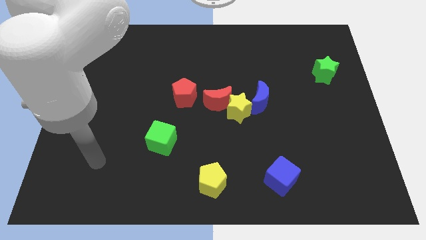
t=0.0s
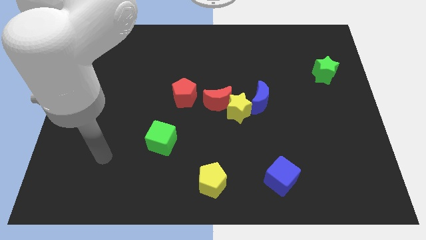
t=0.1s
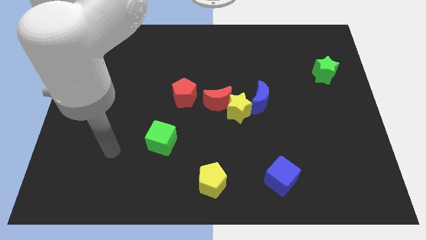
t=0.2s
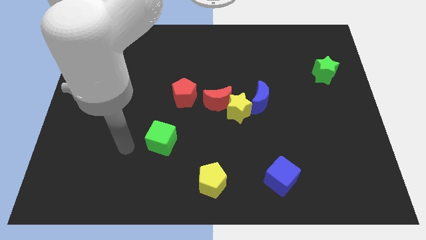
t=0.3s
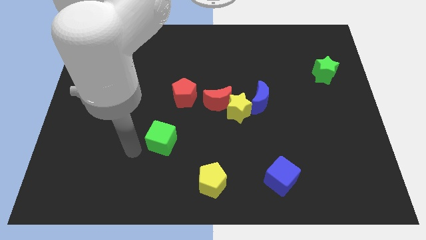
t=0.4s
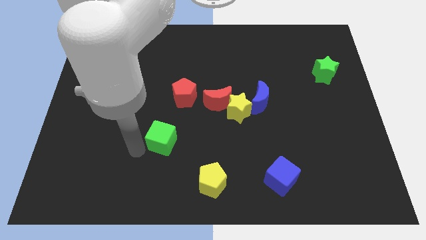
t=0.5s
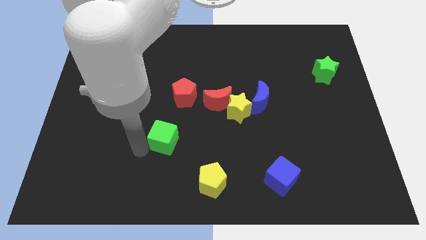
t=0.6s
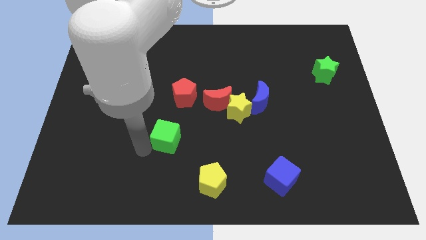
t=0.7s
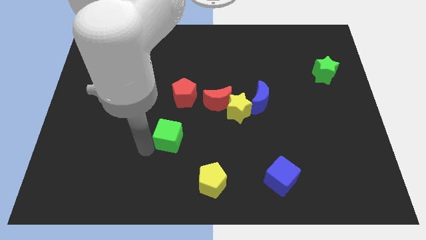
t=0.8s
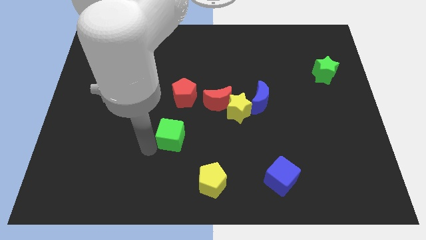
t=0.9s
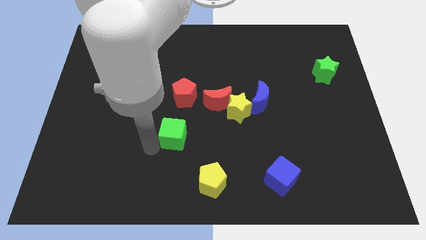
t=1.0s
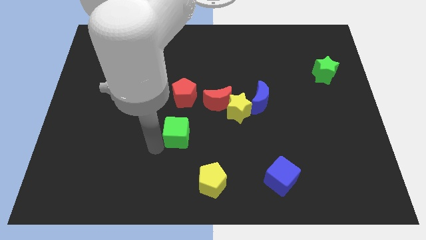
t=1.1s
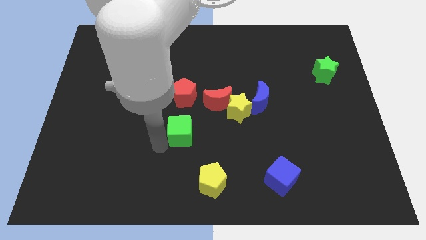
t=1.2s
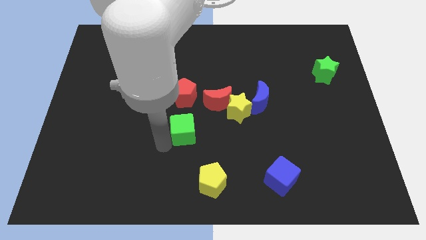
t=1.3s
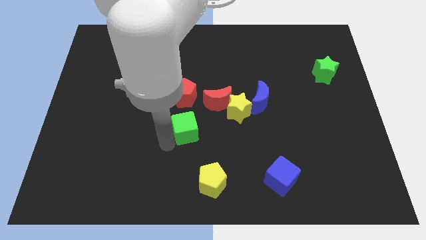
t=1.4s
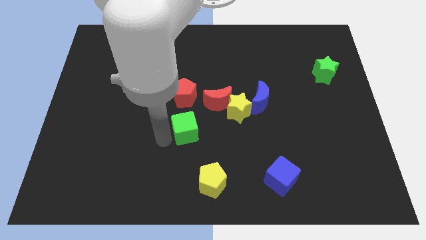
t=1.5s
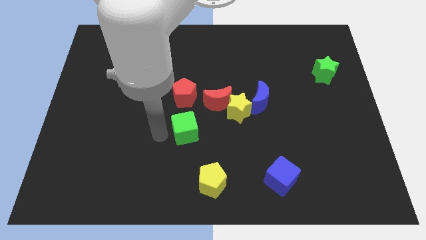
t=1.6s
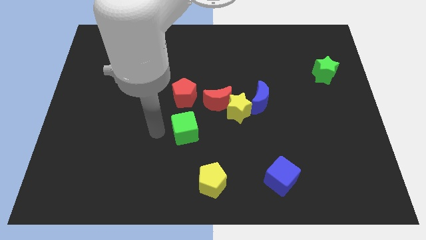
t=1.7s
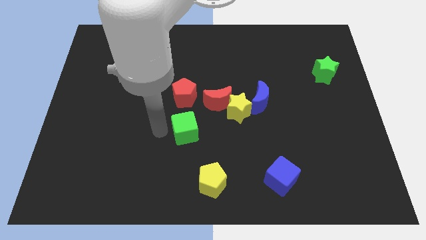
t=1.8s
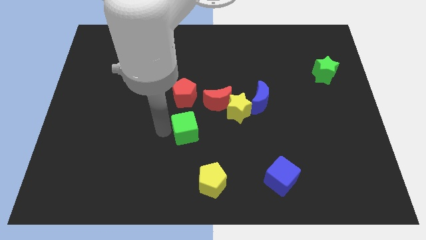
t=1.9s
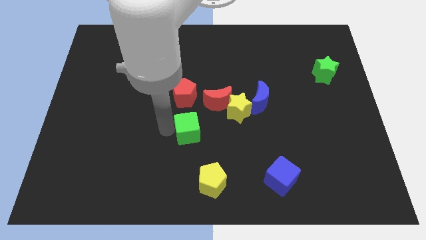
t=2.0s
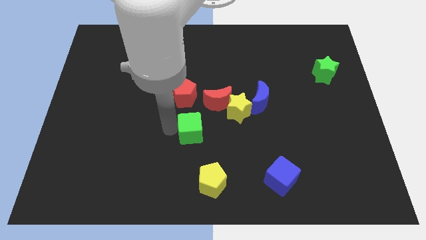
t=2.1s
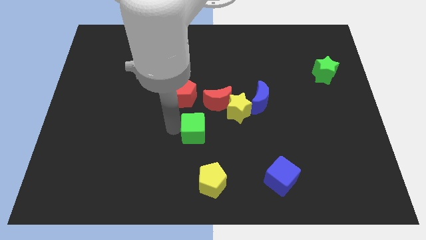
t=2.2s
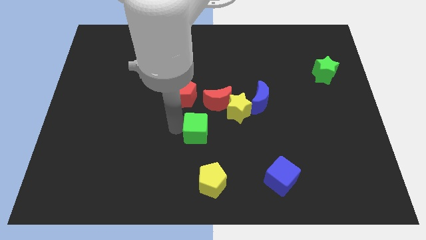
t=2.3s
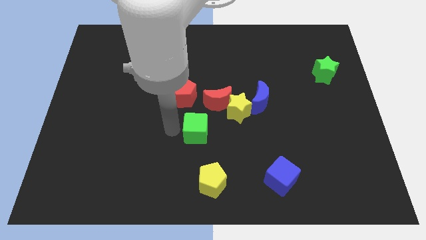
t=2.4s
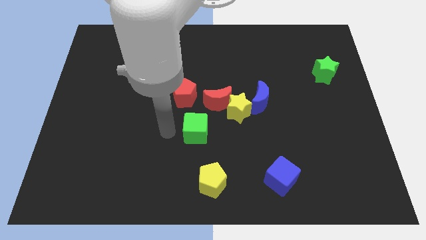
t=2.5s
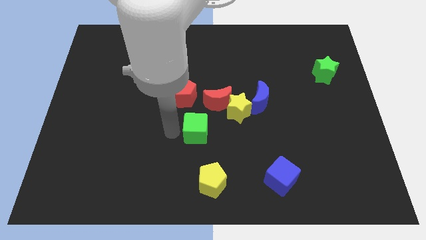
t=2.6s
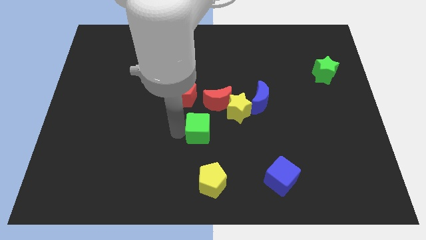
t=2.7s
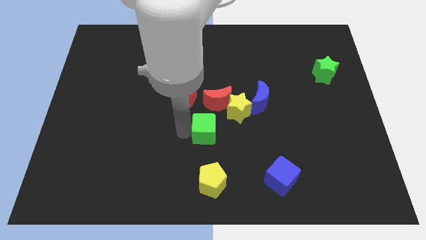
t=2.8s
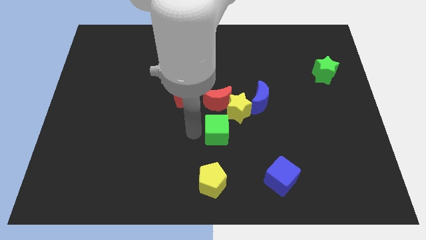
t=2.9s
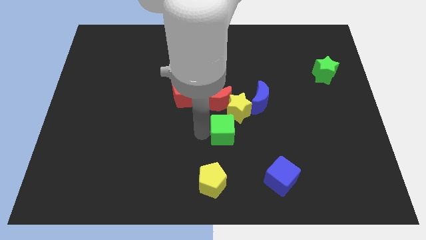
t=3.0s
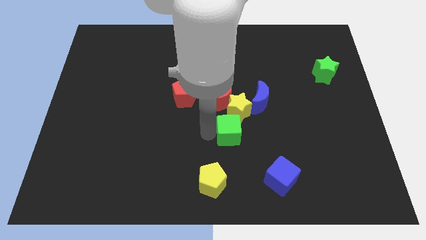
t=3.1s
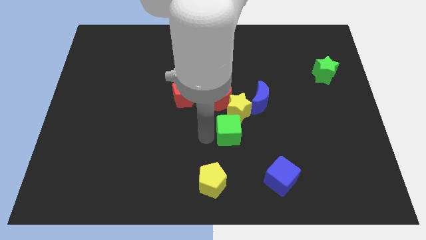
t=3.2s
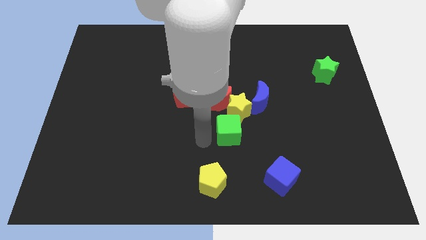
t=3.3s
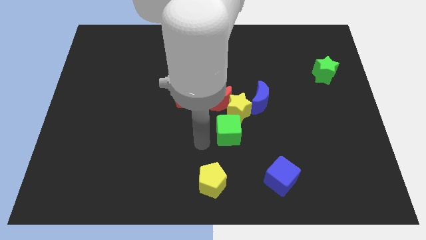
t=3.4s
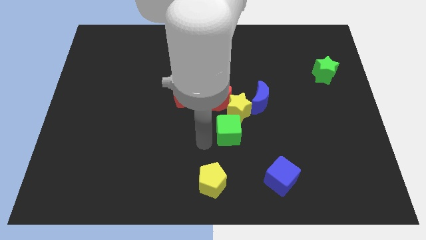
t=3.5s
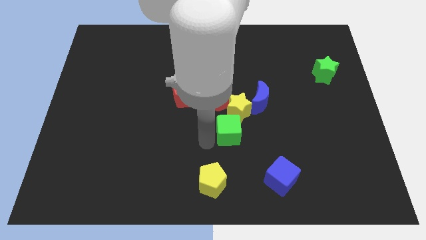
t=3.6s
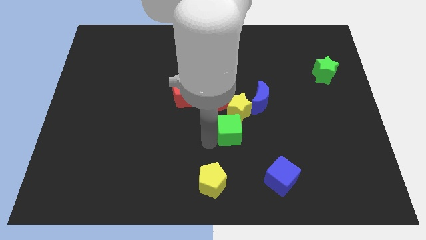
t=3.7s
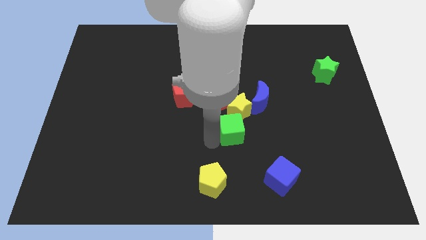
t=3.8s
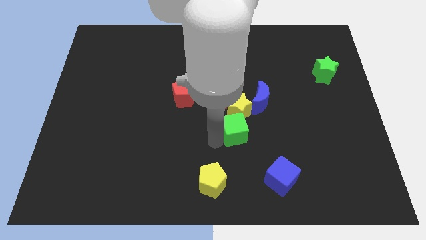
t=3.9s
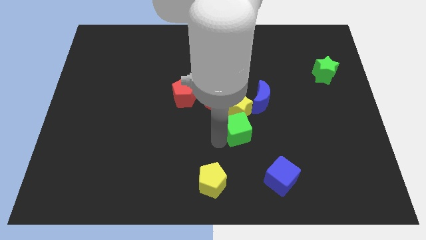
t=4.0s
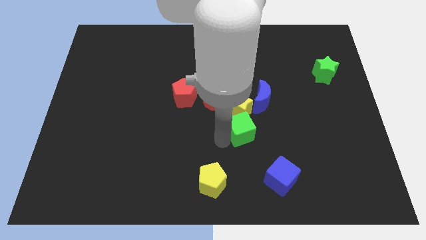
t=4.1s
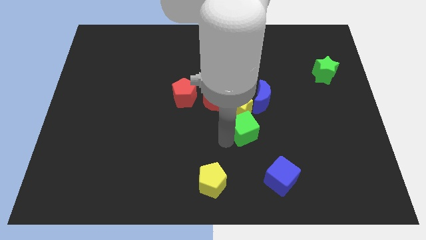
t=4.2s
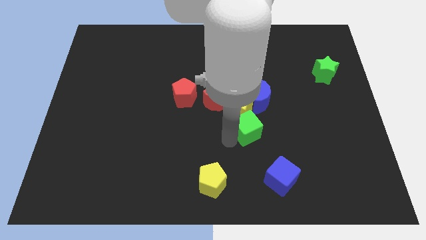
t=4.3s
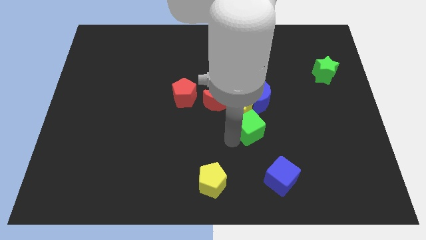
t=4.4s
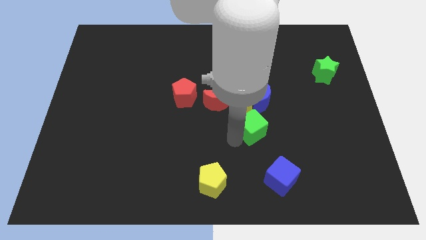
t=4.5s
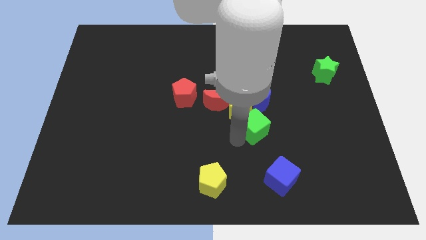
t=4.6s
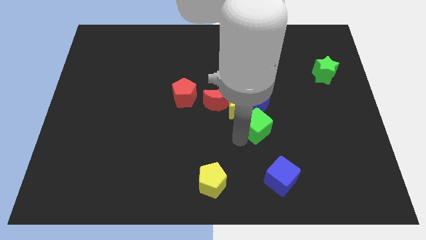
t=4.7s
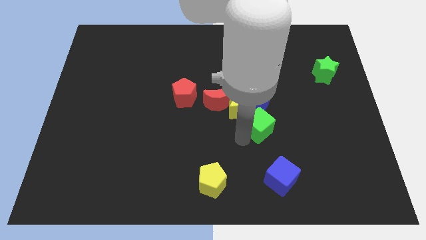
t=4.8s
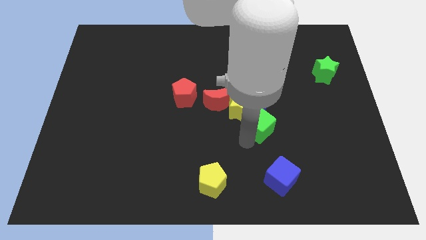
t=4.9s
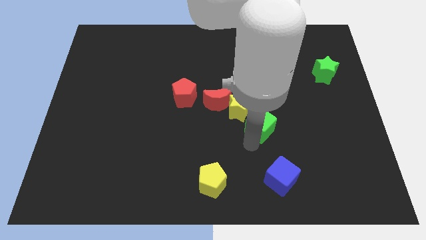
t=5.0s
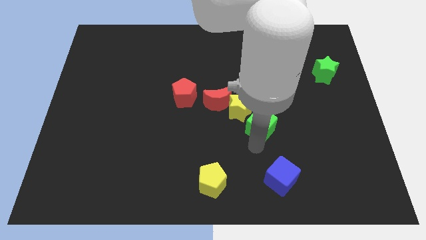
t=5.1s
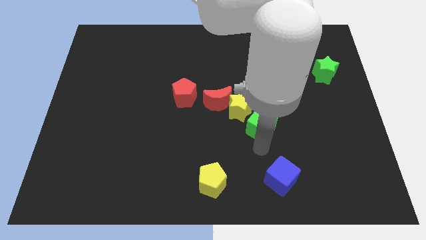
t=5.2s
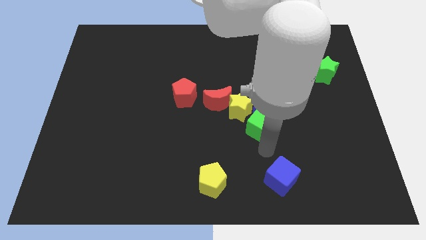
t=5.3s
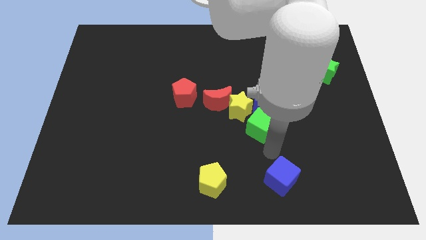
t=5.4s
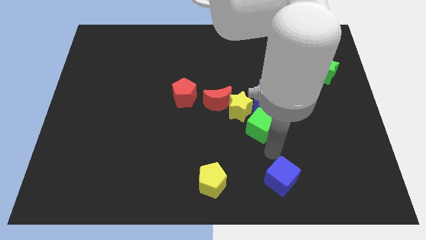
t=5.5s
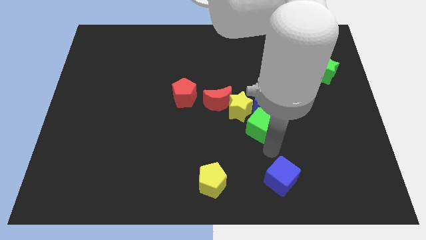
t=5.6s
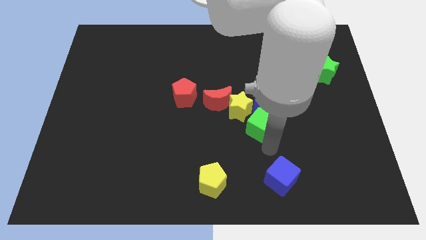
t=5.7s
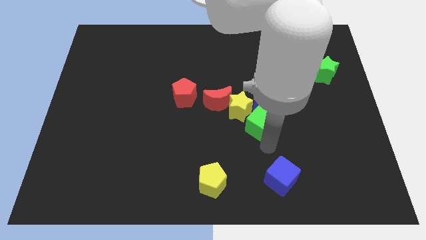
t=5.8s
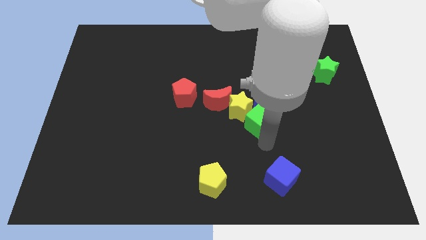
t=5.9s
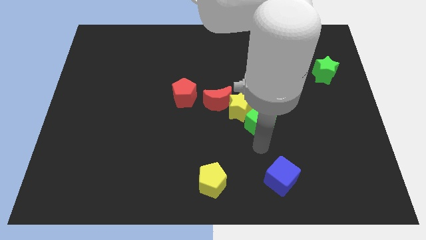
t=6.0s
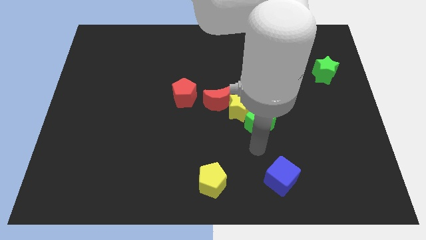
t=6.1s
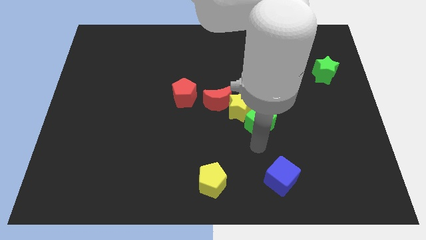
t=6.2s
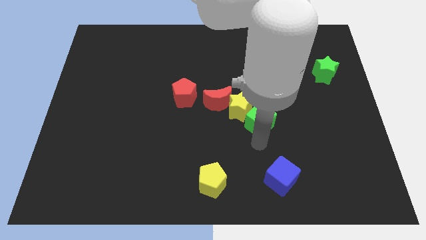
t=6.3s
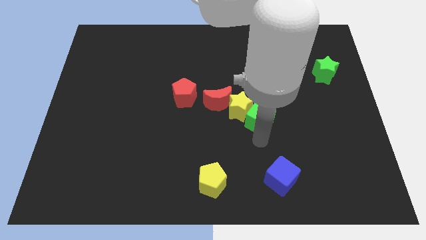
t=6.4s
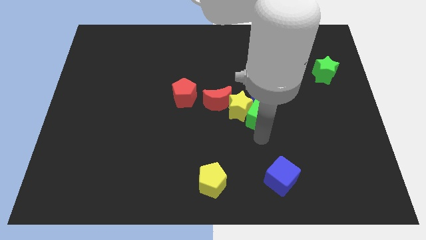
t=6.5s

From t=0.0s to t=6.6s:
put the green cube close to the blue moon
